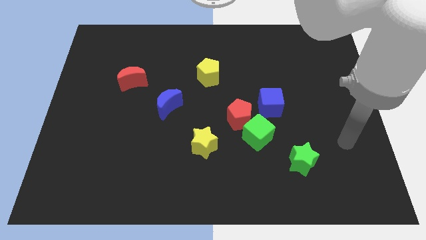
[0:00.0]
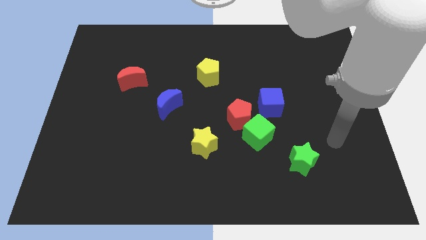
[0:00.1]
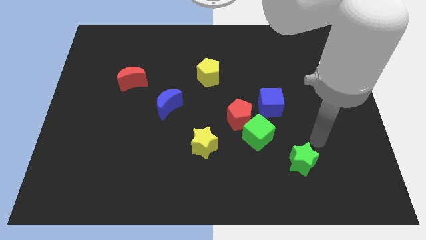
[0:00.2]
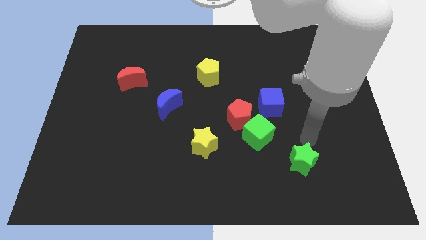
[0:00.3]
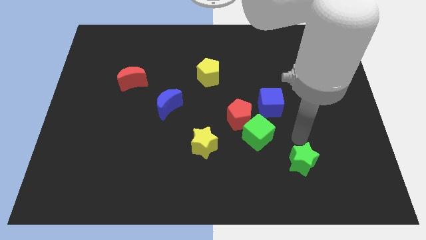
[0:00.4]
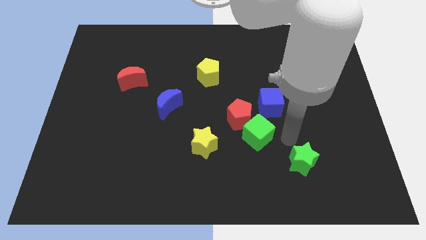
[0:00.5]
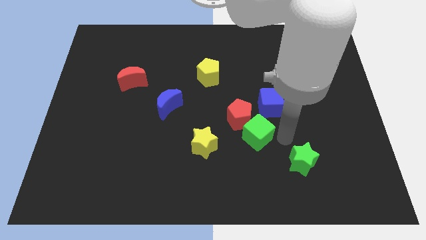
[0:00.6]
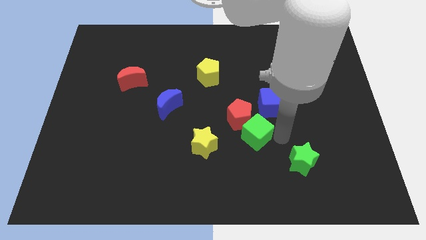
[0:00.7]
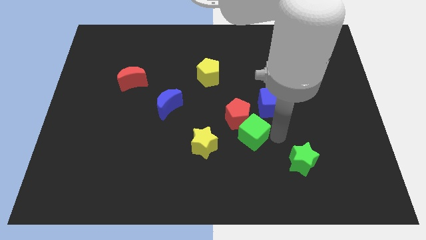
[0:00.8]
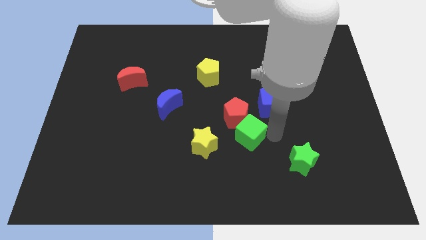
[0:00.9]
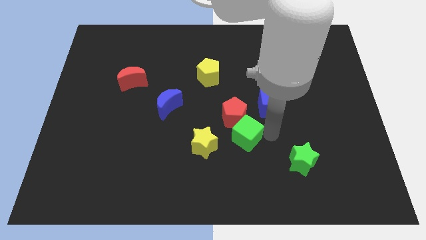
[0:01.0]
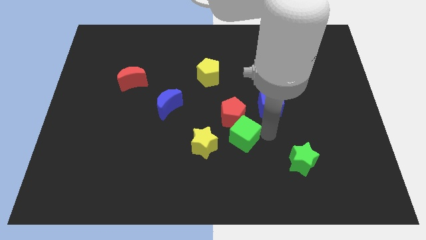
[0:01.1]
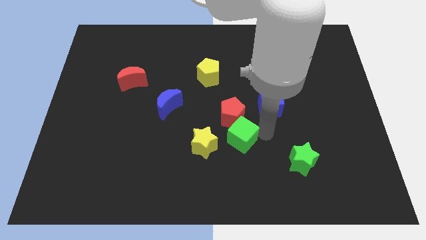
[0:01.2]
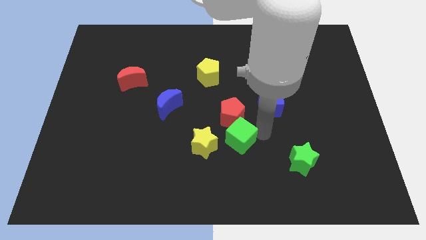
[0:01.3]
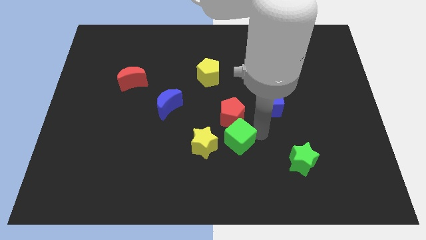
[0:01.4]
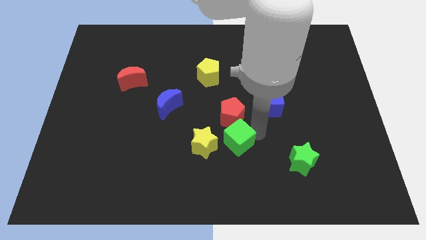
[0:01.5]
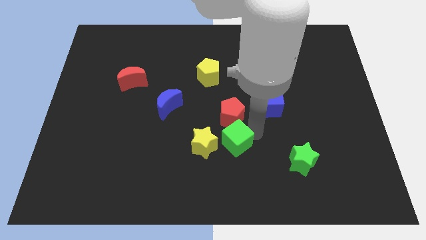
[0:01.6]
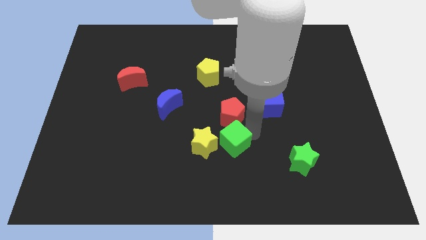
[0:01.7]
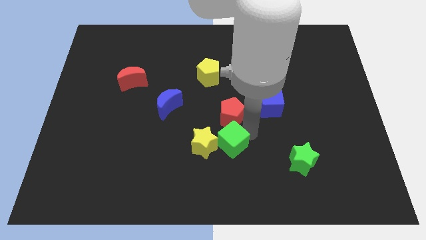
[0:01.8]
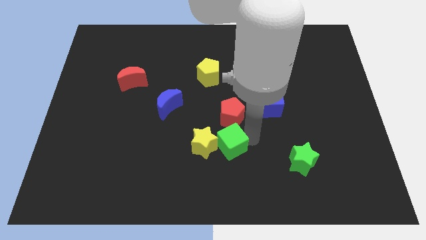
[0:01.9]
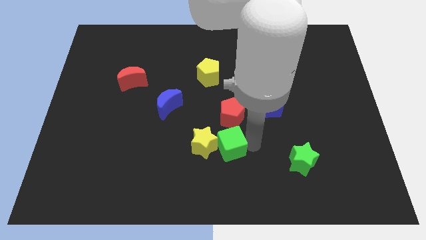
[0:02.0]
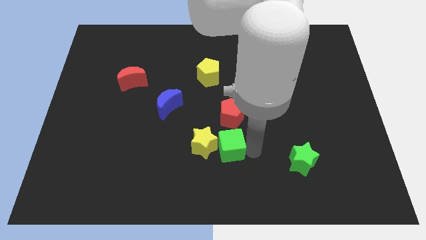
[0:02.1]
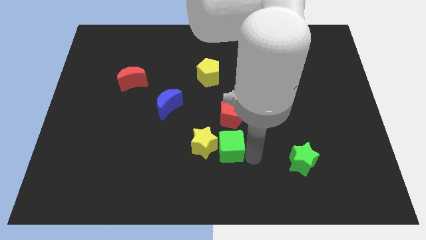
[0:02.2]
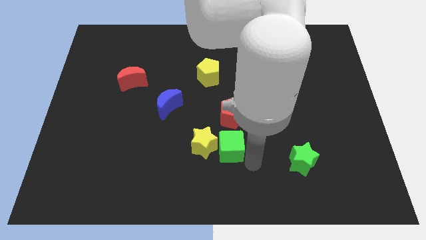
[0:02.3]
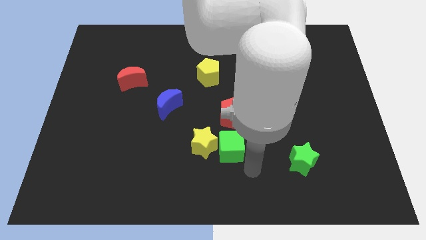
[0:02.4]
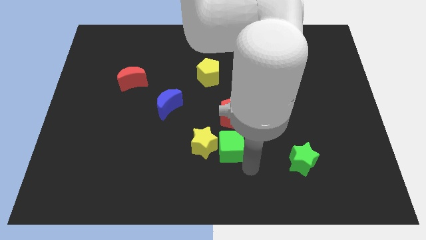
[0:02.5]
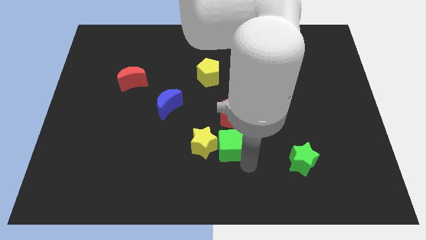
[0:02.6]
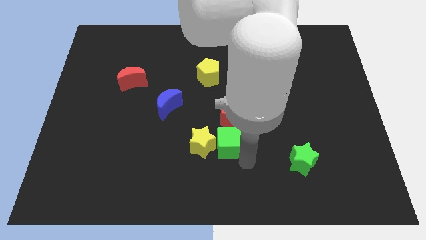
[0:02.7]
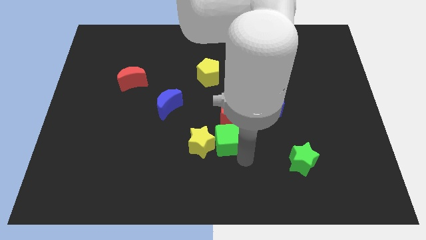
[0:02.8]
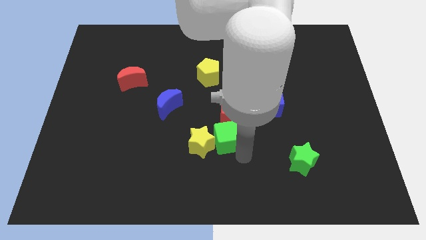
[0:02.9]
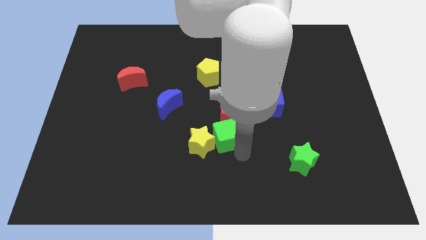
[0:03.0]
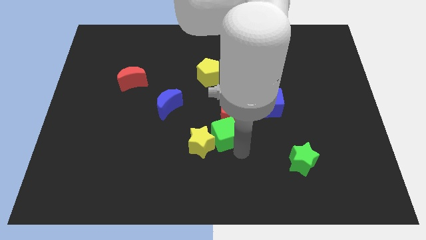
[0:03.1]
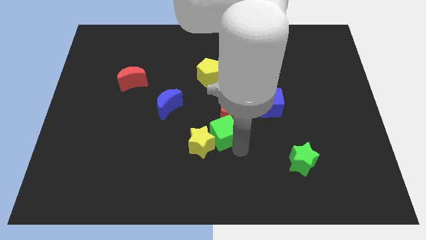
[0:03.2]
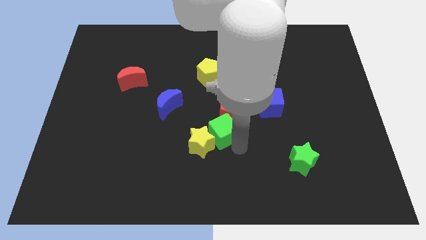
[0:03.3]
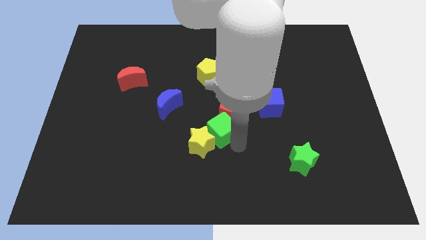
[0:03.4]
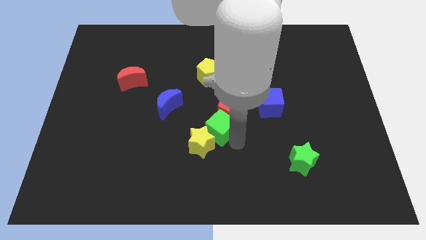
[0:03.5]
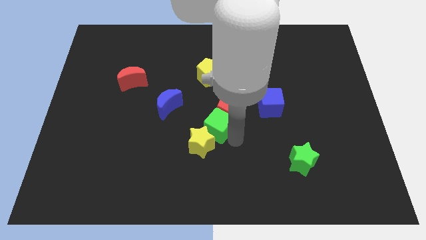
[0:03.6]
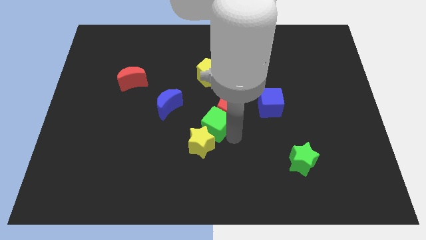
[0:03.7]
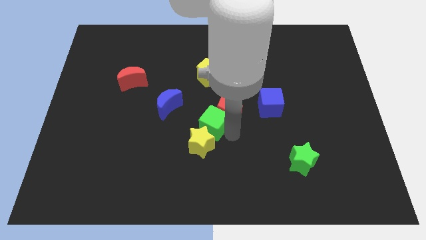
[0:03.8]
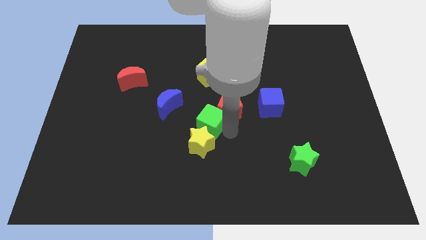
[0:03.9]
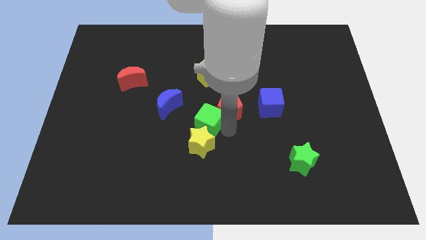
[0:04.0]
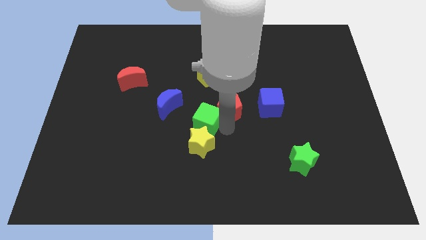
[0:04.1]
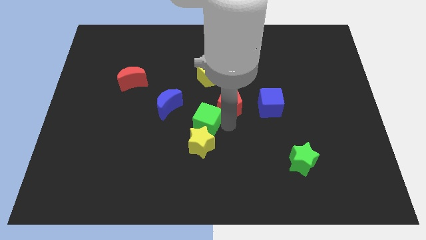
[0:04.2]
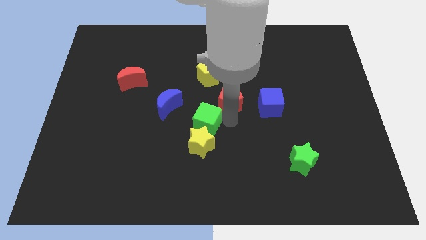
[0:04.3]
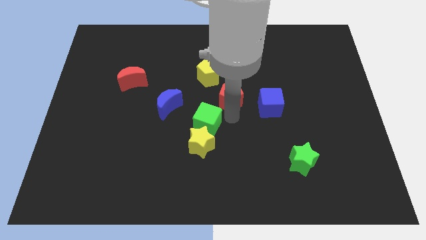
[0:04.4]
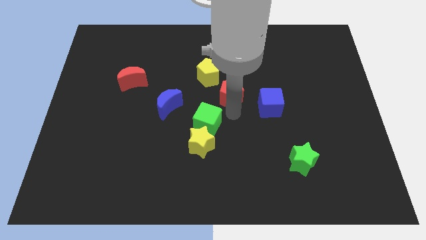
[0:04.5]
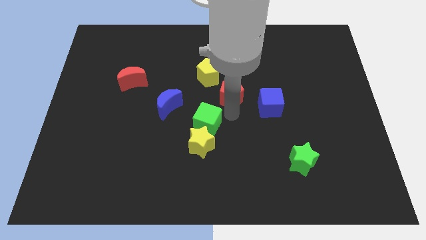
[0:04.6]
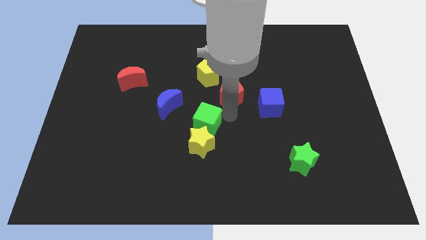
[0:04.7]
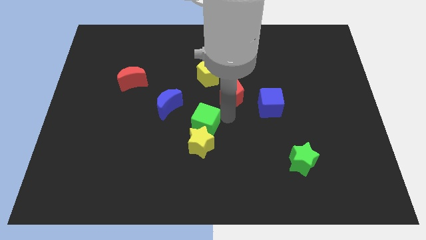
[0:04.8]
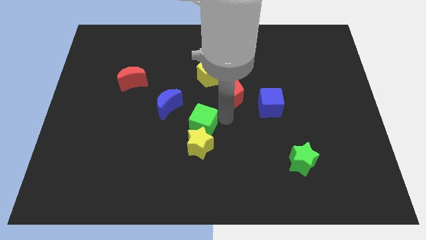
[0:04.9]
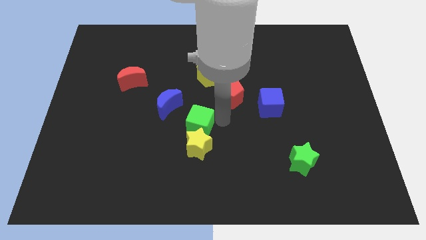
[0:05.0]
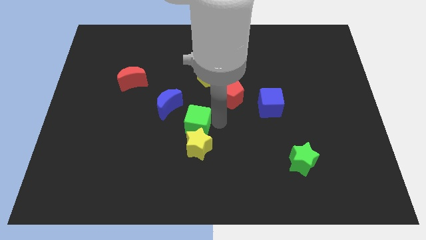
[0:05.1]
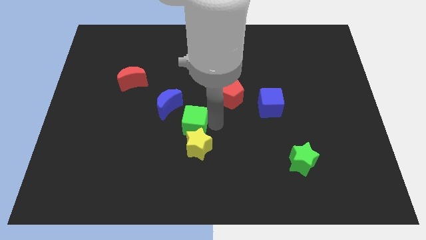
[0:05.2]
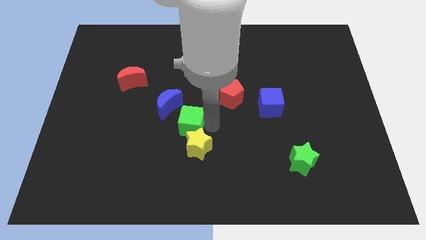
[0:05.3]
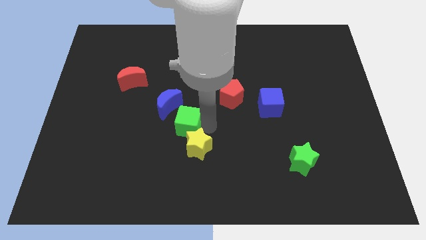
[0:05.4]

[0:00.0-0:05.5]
push the green cube to the bottom of the blue moon

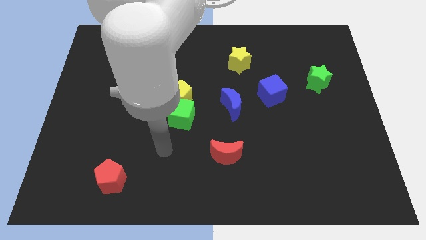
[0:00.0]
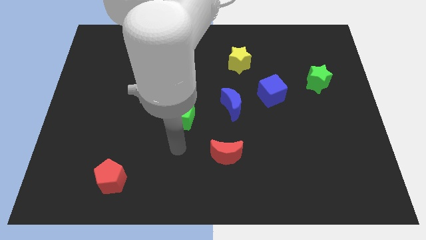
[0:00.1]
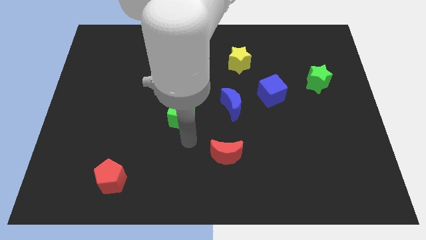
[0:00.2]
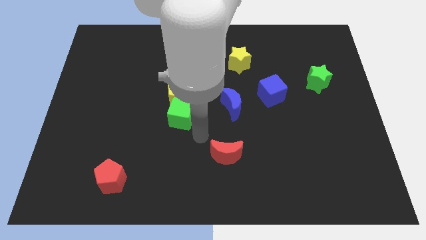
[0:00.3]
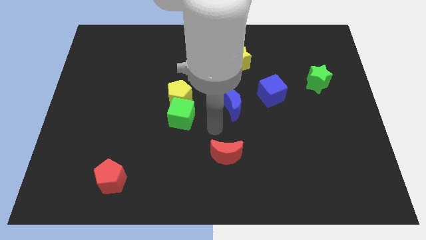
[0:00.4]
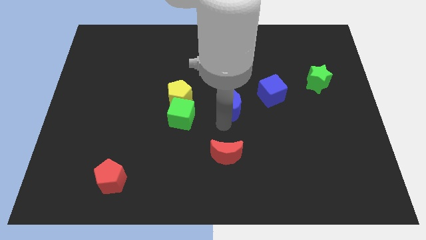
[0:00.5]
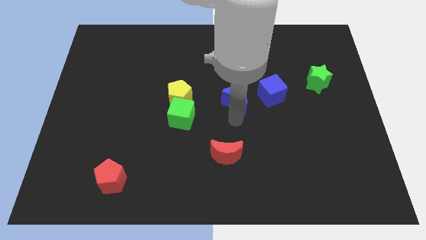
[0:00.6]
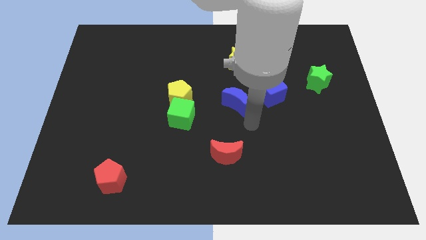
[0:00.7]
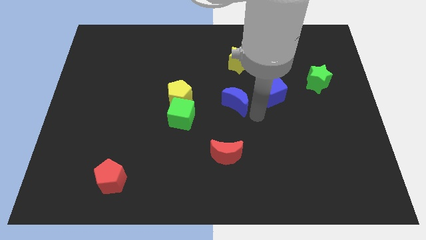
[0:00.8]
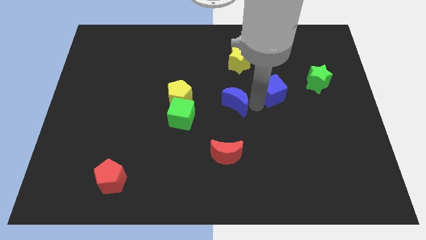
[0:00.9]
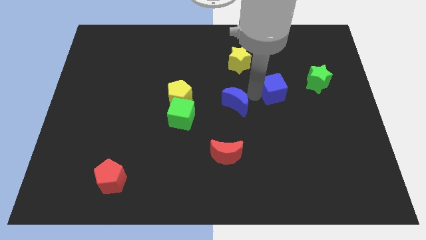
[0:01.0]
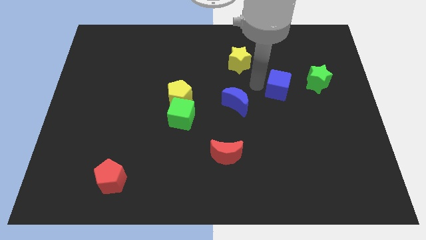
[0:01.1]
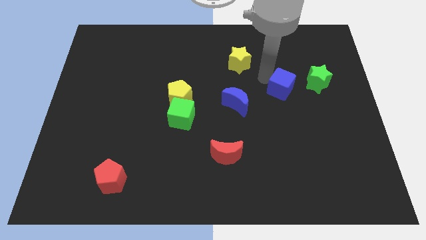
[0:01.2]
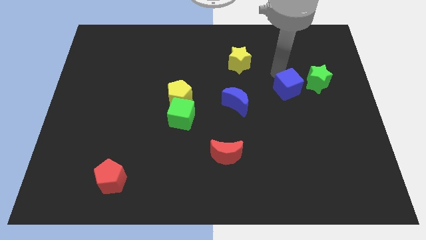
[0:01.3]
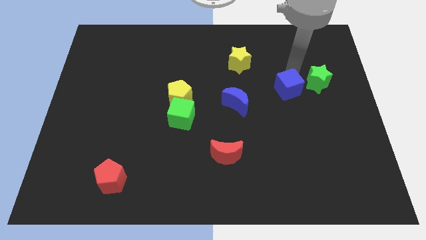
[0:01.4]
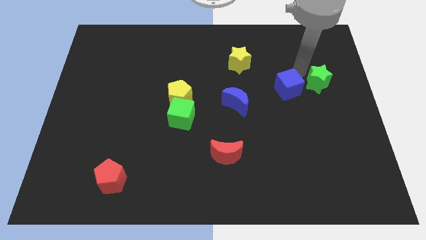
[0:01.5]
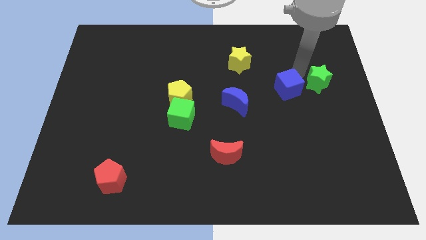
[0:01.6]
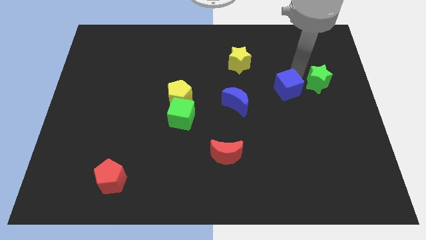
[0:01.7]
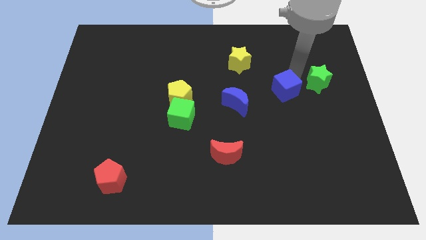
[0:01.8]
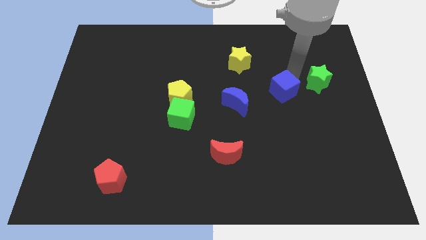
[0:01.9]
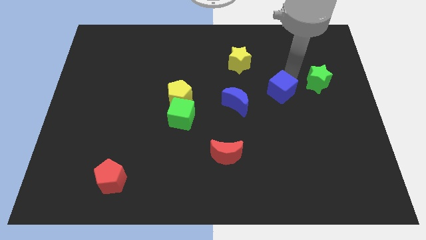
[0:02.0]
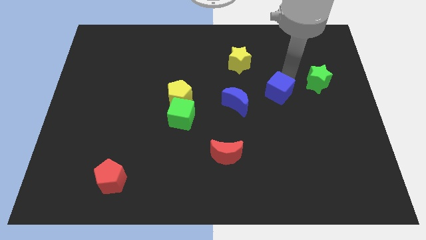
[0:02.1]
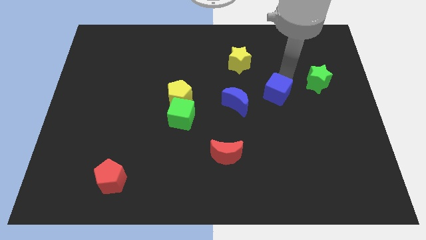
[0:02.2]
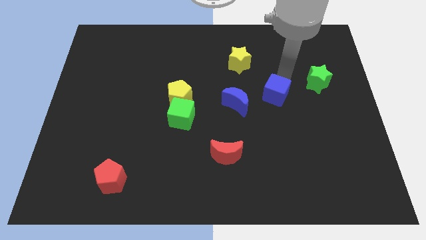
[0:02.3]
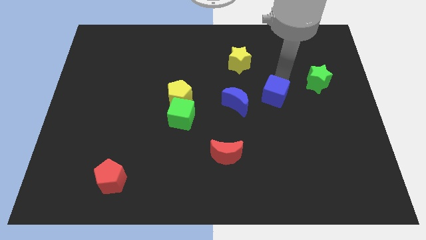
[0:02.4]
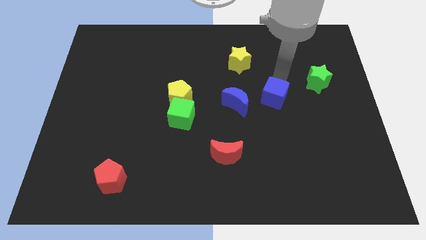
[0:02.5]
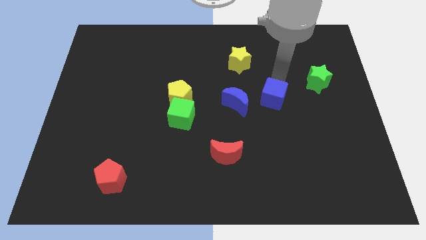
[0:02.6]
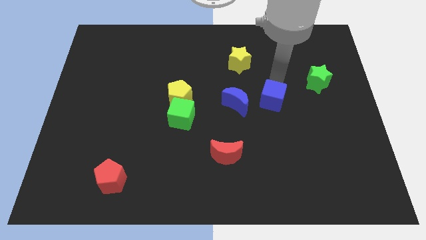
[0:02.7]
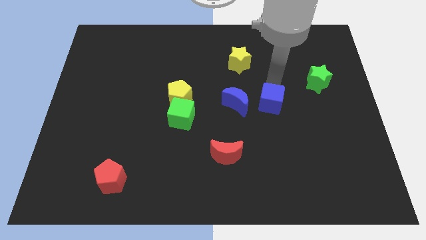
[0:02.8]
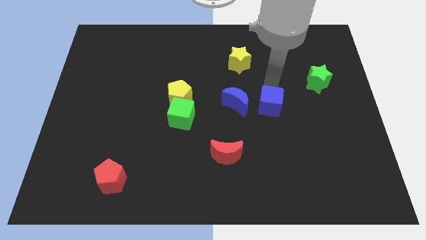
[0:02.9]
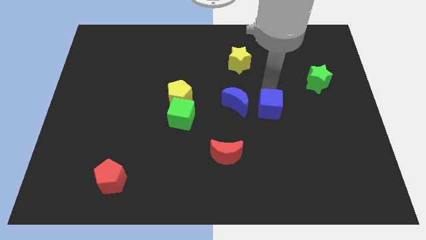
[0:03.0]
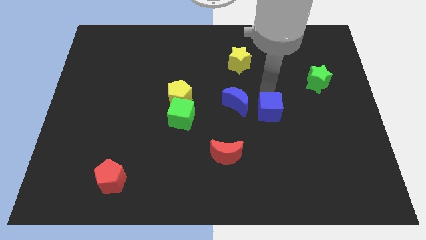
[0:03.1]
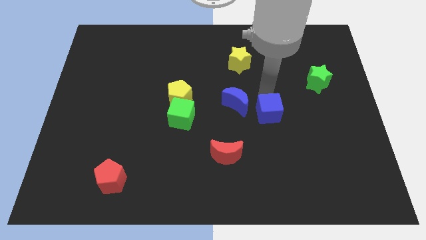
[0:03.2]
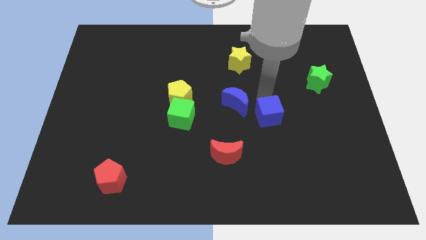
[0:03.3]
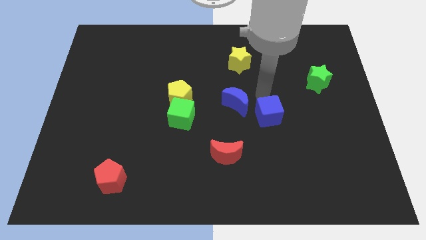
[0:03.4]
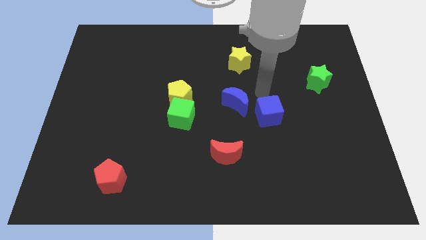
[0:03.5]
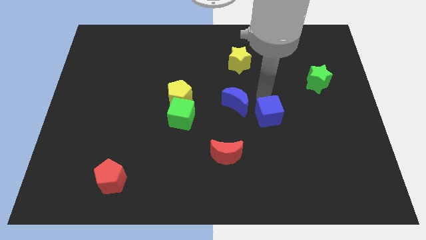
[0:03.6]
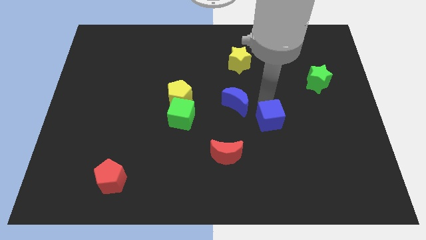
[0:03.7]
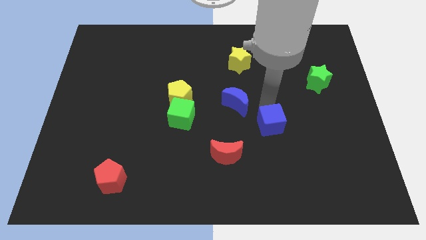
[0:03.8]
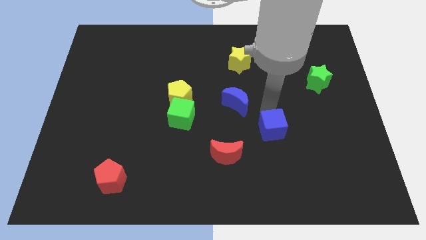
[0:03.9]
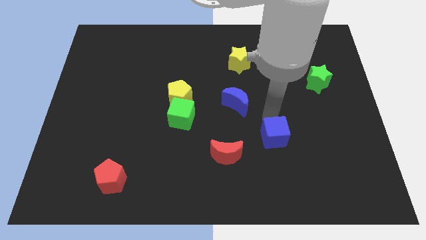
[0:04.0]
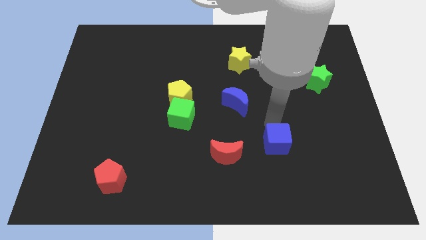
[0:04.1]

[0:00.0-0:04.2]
push the blue cube to the right of the red moon
